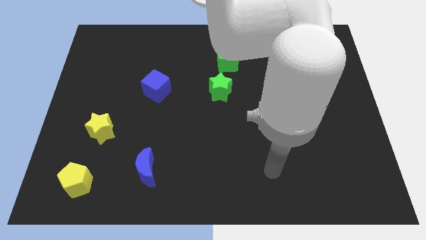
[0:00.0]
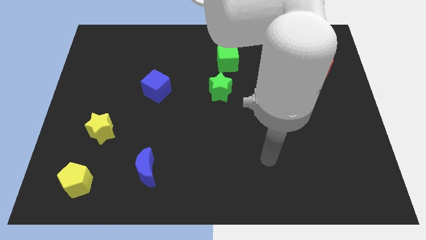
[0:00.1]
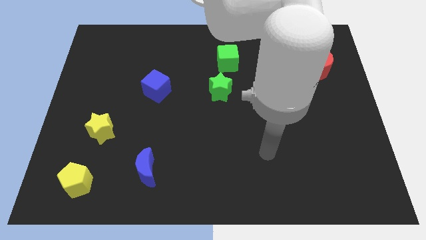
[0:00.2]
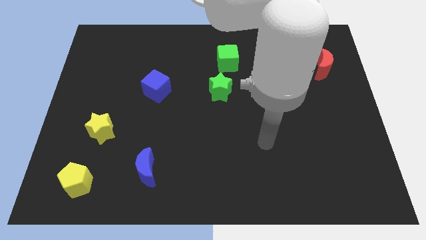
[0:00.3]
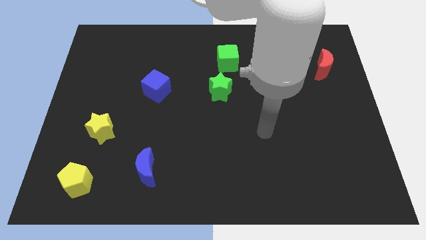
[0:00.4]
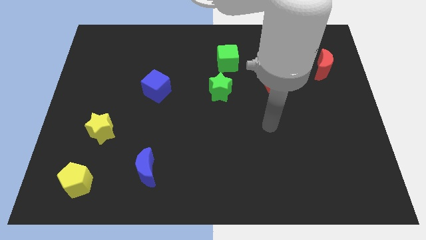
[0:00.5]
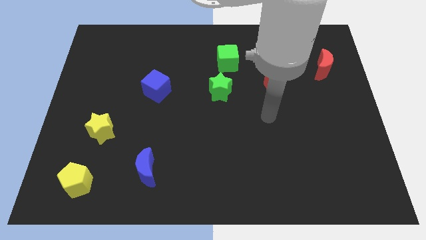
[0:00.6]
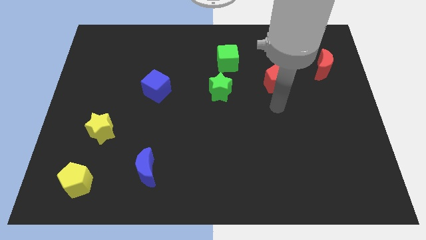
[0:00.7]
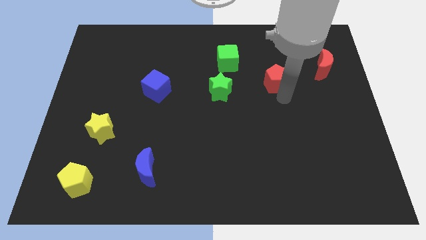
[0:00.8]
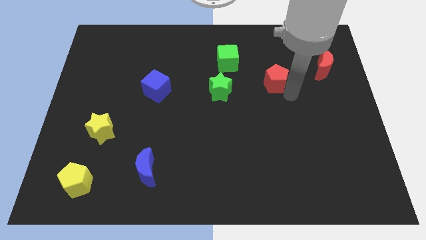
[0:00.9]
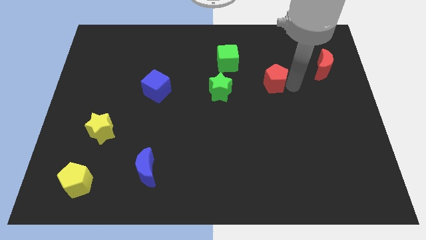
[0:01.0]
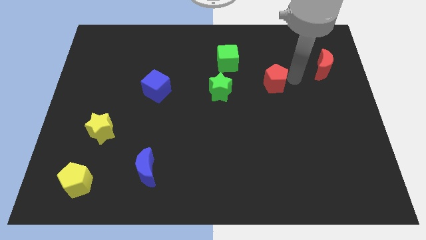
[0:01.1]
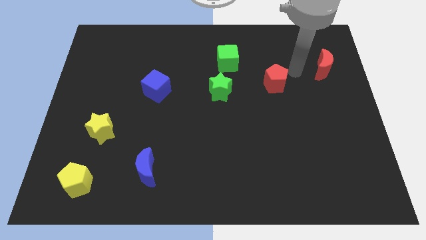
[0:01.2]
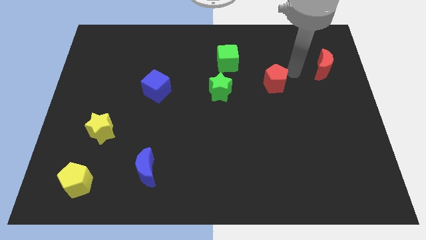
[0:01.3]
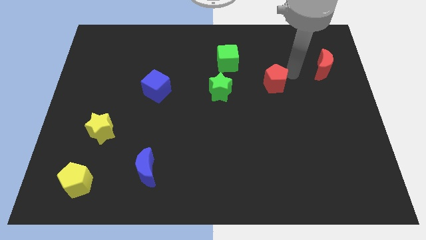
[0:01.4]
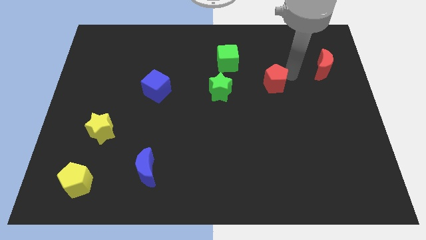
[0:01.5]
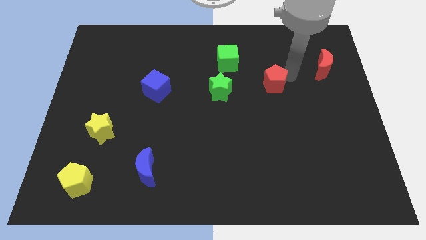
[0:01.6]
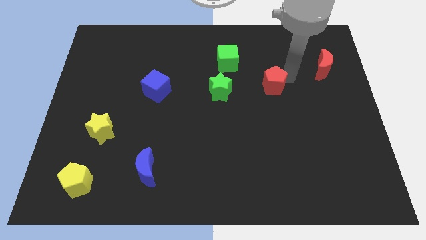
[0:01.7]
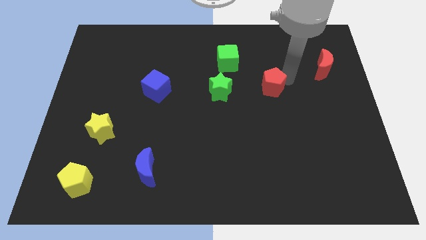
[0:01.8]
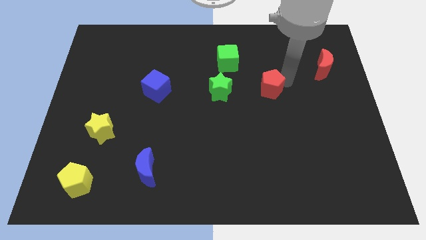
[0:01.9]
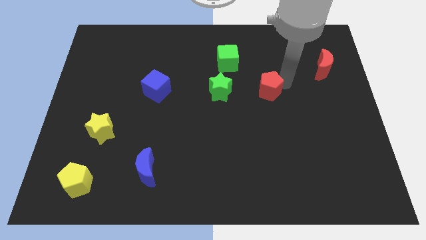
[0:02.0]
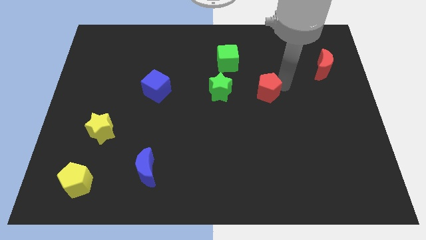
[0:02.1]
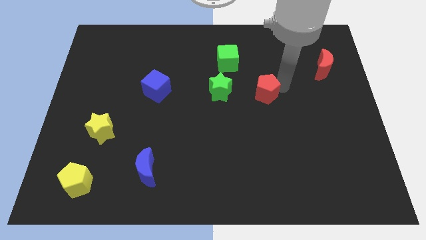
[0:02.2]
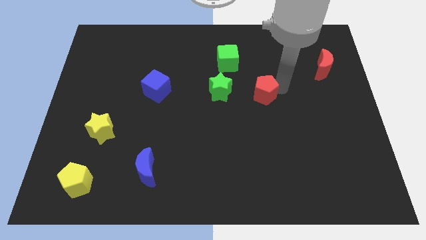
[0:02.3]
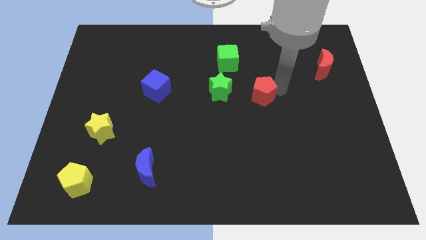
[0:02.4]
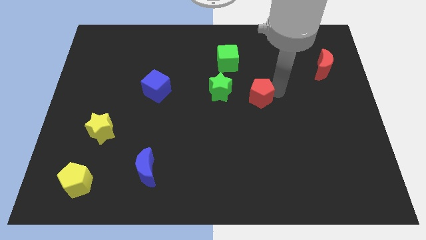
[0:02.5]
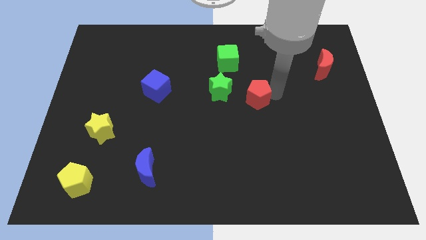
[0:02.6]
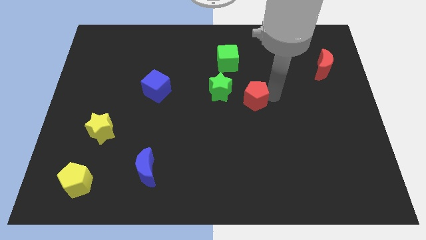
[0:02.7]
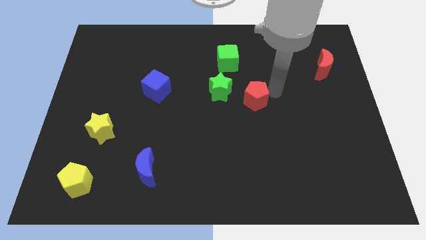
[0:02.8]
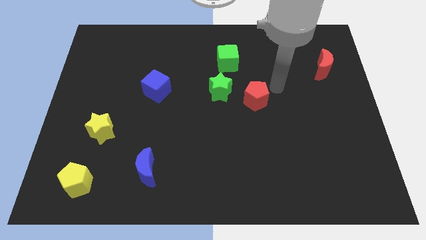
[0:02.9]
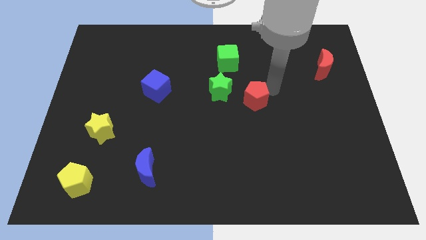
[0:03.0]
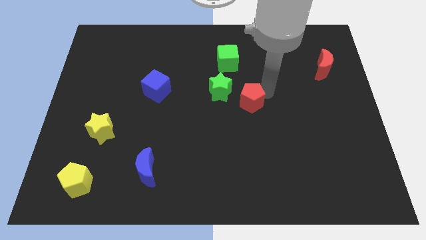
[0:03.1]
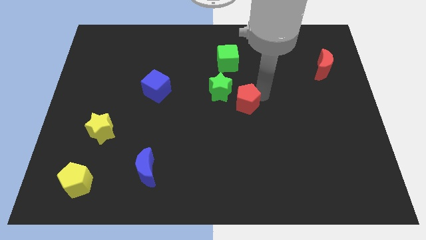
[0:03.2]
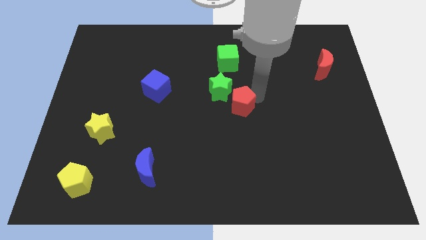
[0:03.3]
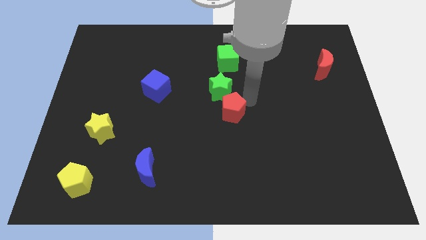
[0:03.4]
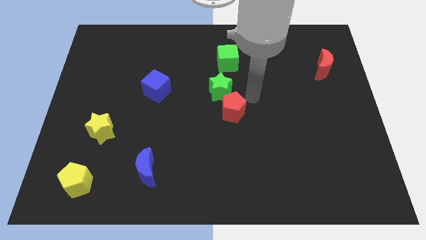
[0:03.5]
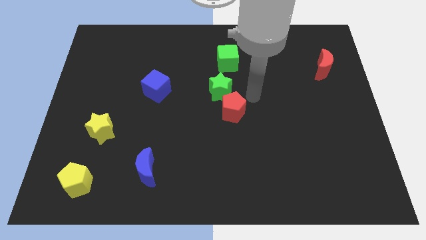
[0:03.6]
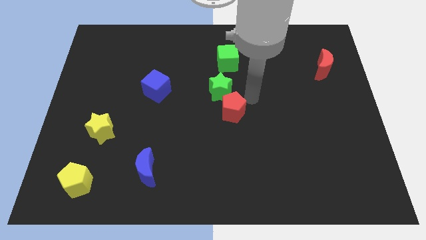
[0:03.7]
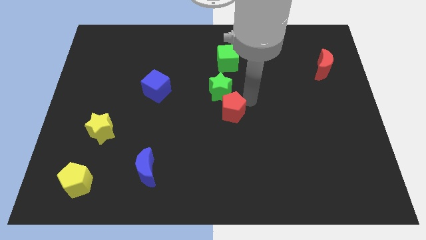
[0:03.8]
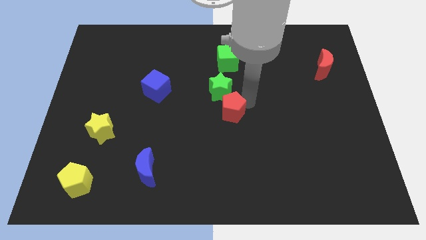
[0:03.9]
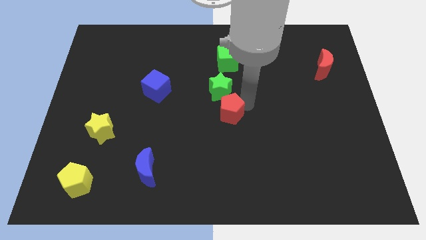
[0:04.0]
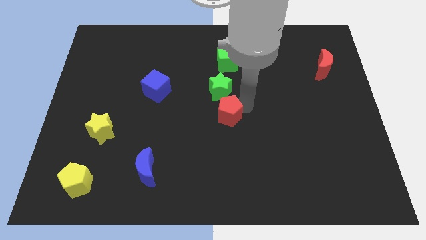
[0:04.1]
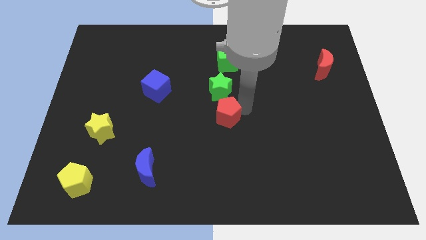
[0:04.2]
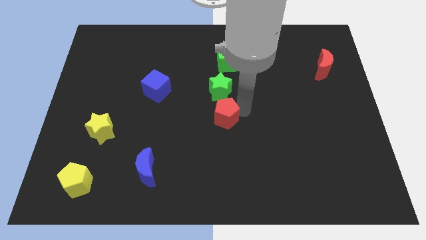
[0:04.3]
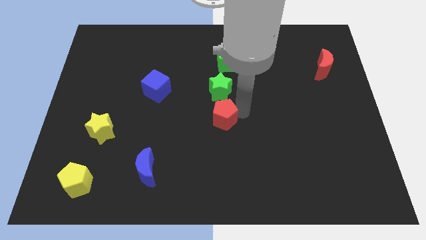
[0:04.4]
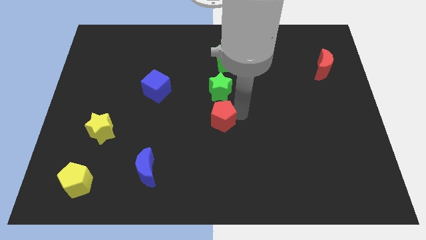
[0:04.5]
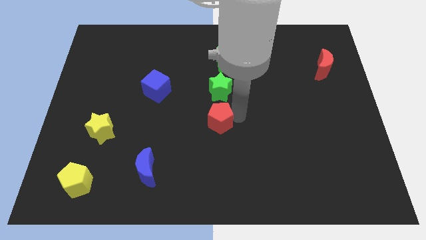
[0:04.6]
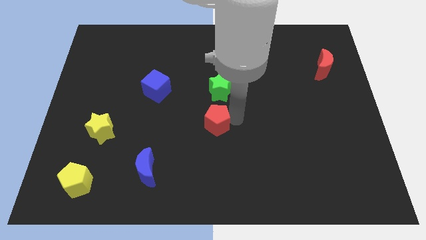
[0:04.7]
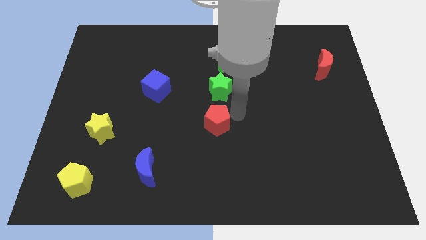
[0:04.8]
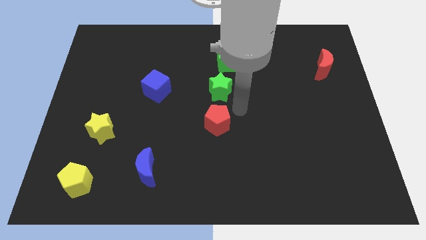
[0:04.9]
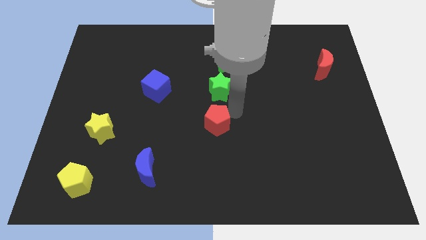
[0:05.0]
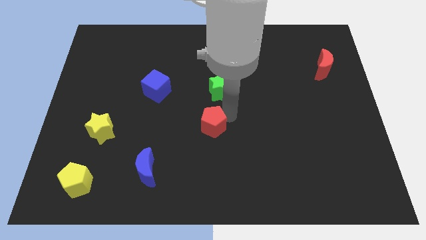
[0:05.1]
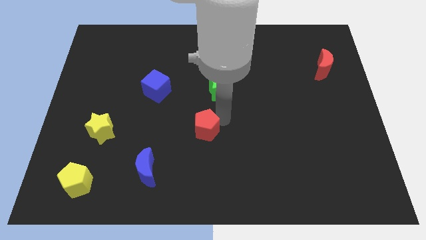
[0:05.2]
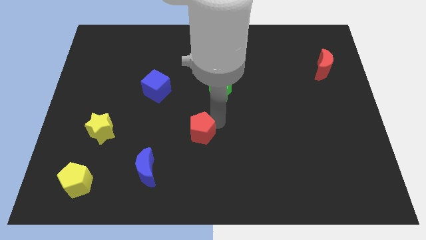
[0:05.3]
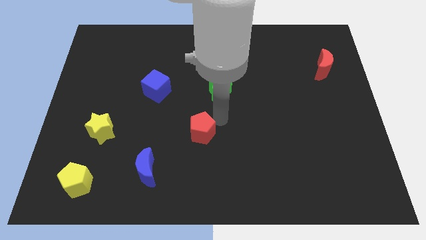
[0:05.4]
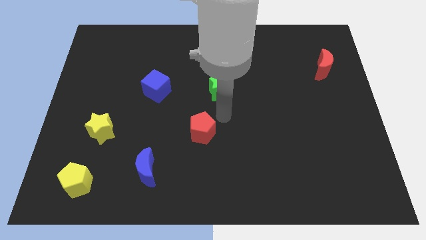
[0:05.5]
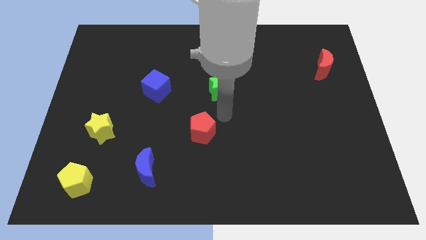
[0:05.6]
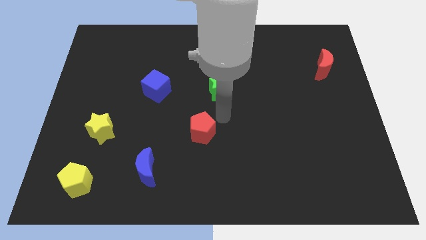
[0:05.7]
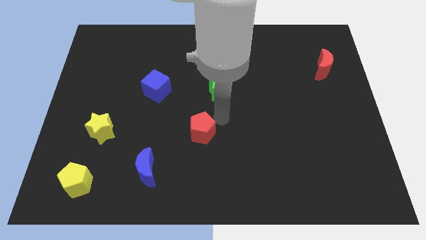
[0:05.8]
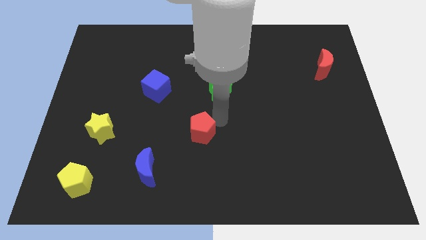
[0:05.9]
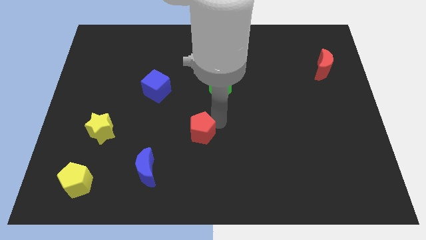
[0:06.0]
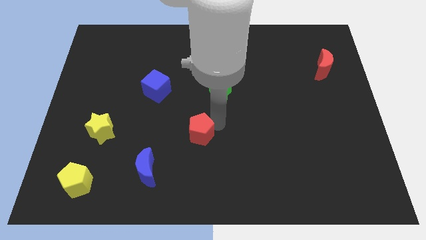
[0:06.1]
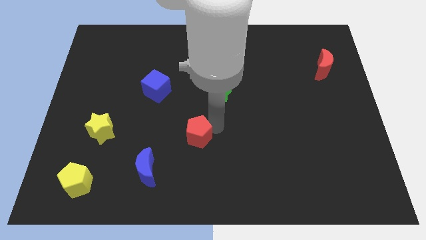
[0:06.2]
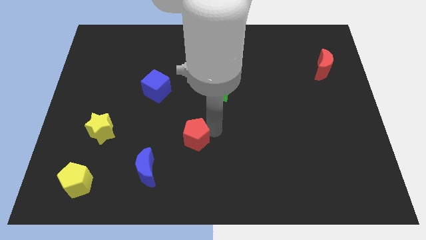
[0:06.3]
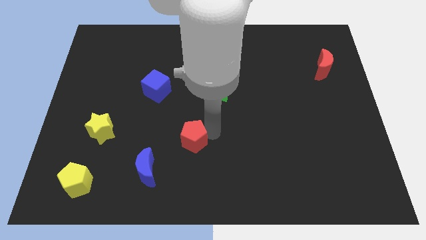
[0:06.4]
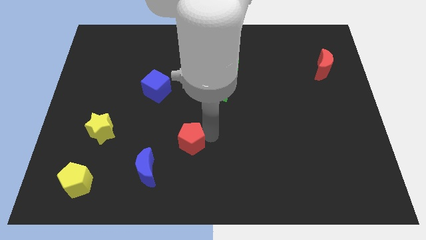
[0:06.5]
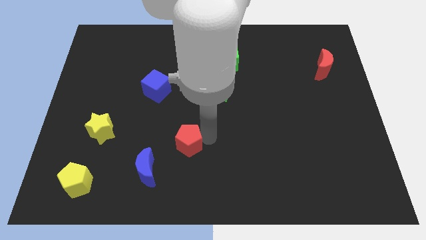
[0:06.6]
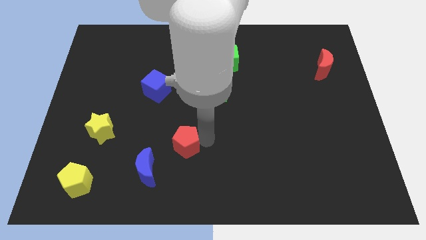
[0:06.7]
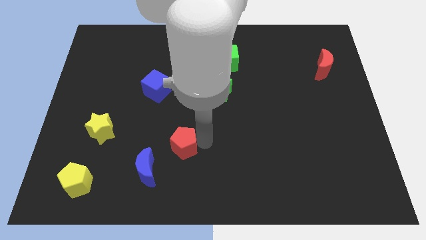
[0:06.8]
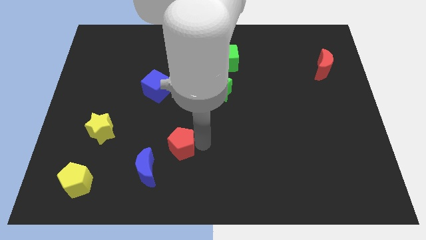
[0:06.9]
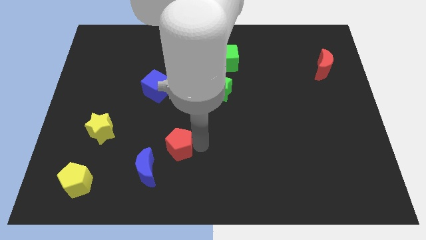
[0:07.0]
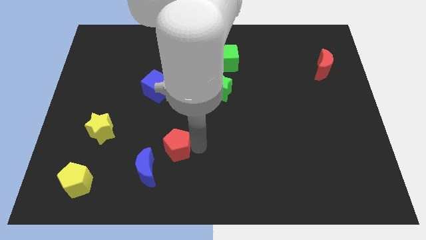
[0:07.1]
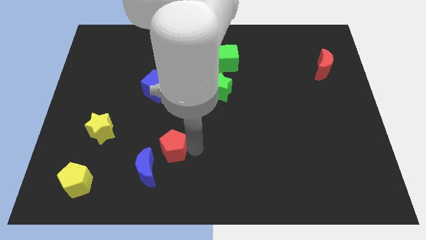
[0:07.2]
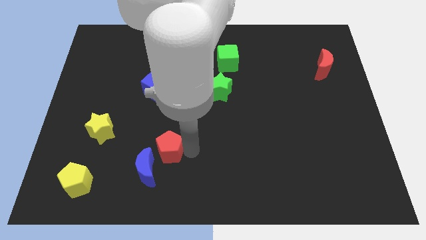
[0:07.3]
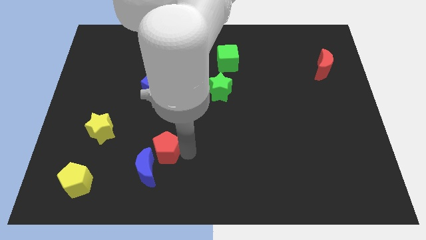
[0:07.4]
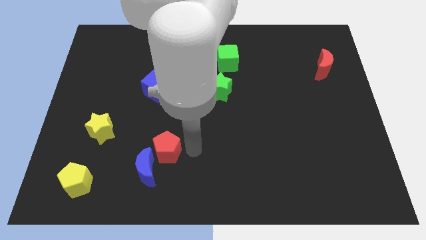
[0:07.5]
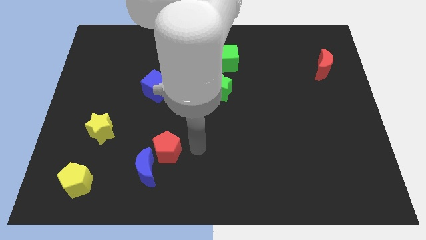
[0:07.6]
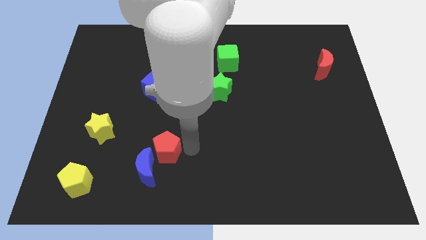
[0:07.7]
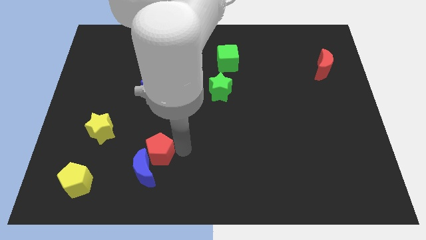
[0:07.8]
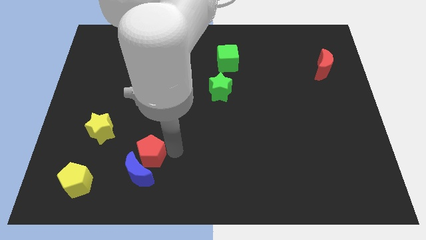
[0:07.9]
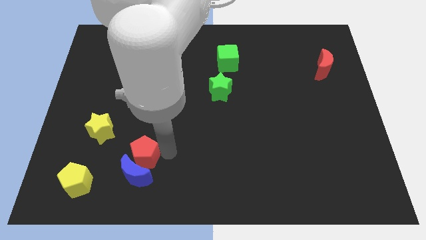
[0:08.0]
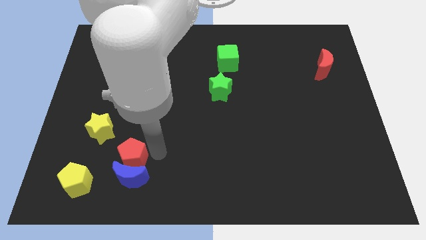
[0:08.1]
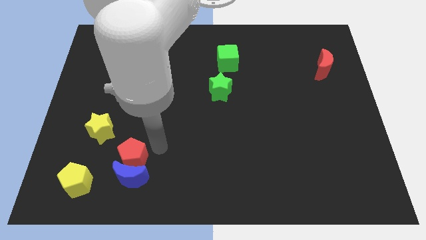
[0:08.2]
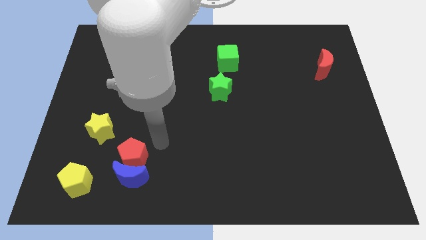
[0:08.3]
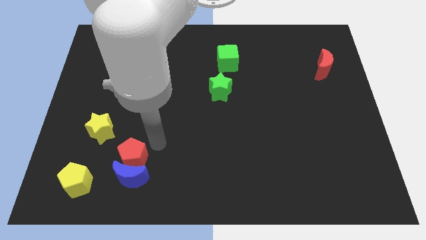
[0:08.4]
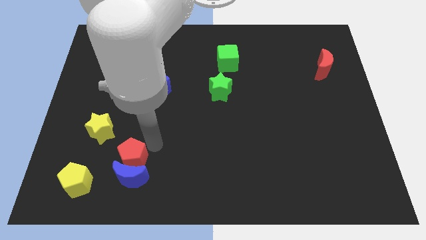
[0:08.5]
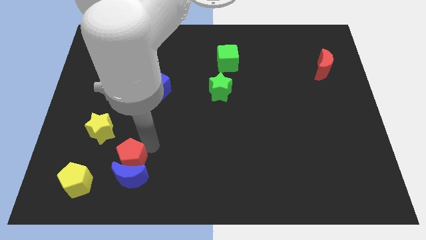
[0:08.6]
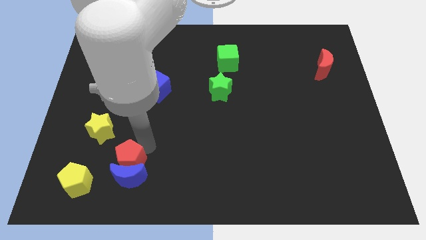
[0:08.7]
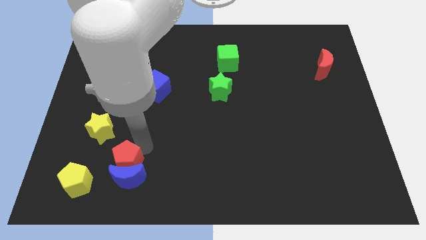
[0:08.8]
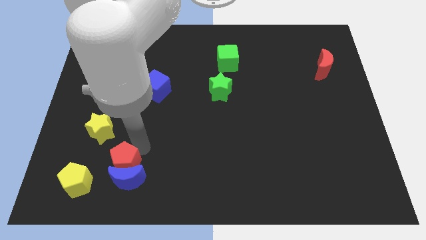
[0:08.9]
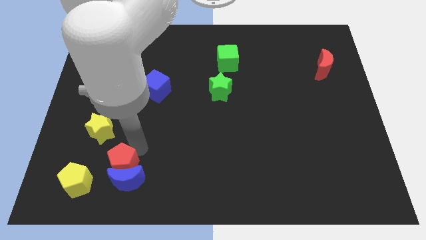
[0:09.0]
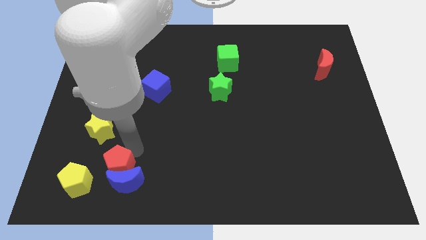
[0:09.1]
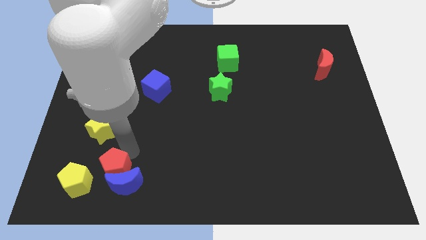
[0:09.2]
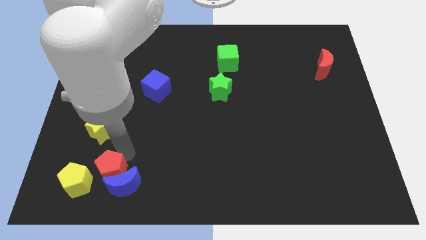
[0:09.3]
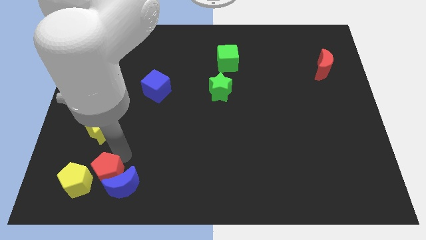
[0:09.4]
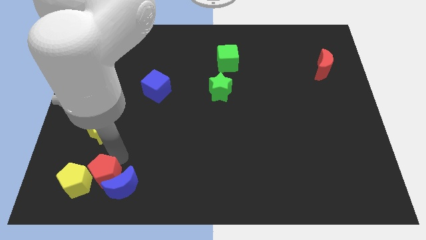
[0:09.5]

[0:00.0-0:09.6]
push the red pentagon next to the yellow pentagon
